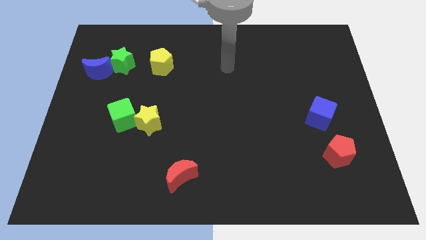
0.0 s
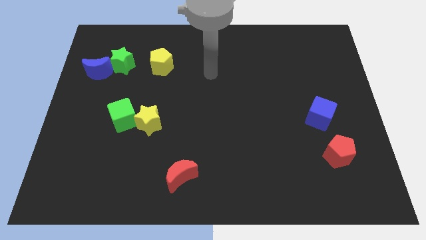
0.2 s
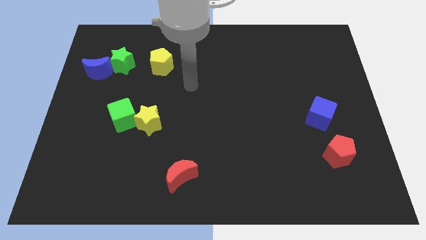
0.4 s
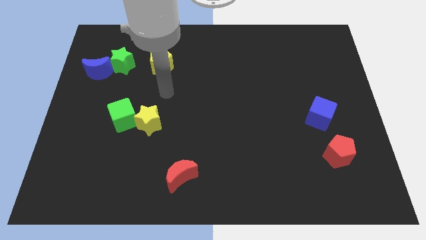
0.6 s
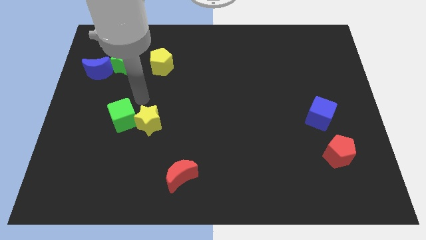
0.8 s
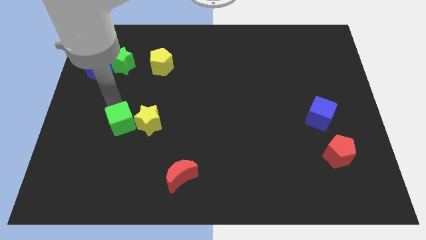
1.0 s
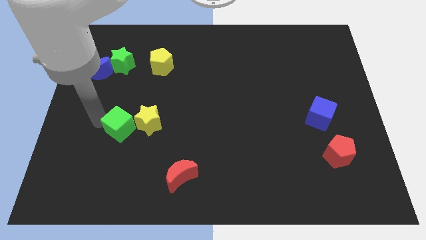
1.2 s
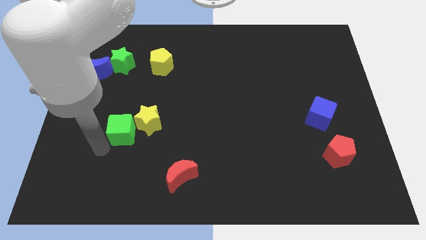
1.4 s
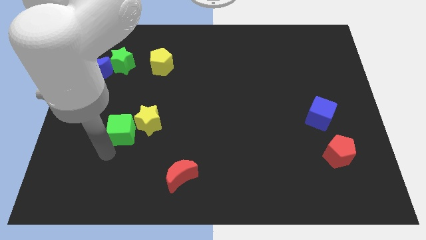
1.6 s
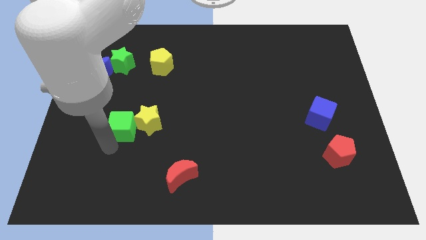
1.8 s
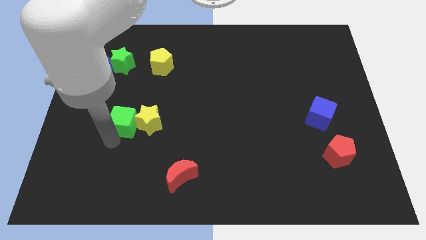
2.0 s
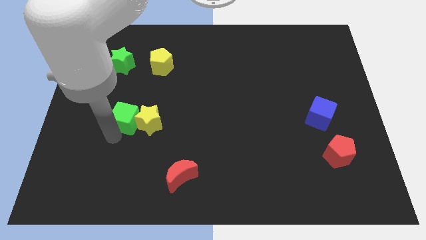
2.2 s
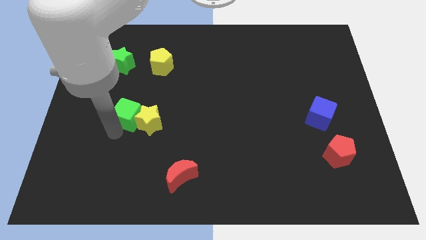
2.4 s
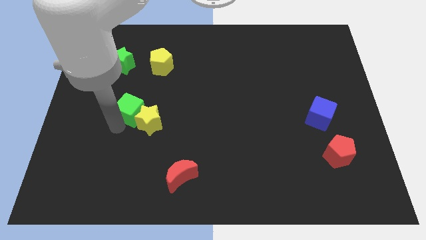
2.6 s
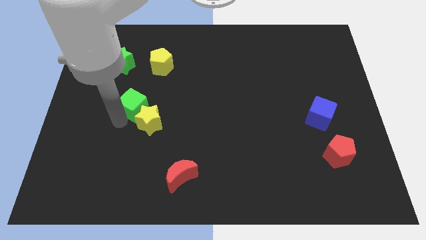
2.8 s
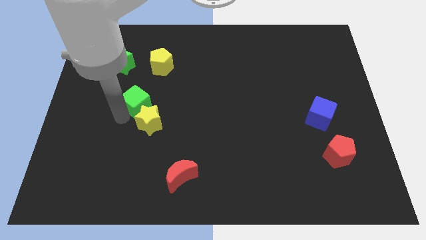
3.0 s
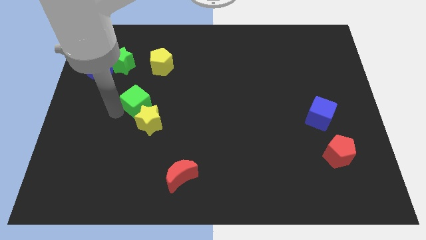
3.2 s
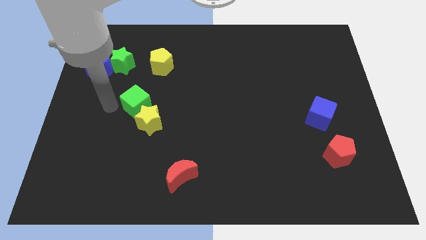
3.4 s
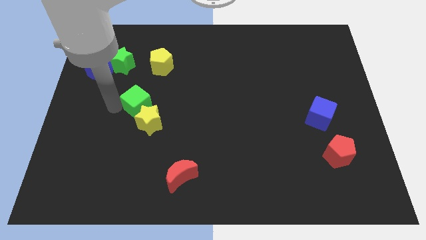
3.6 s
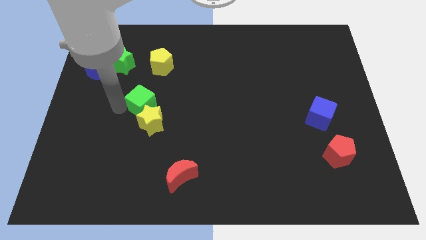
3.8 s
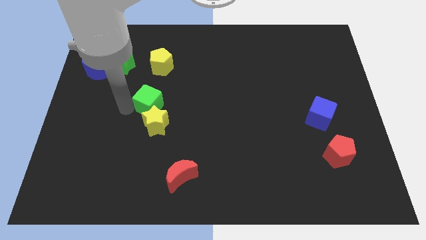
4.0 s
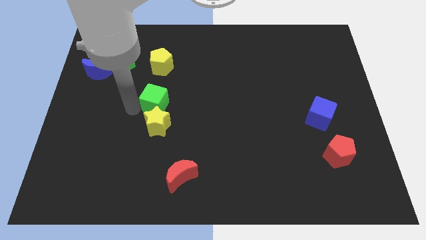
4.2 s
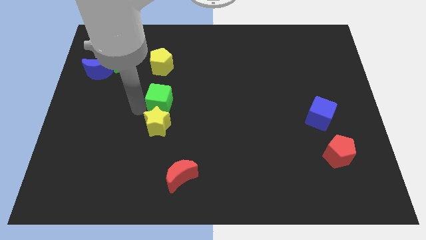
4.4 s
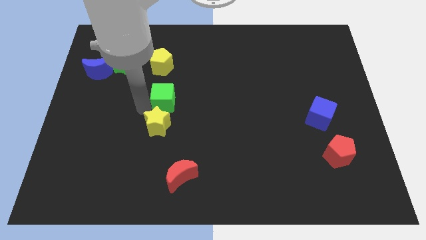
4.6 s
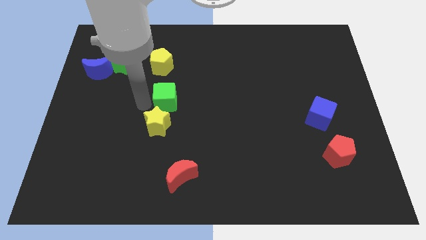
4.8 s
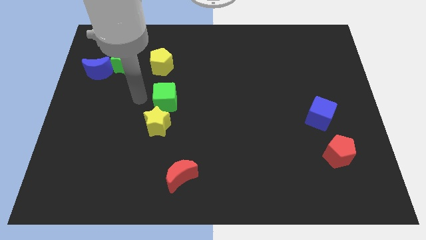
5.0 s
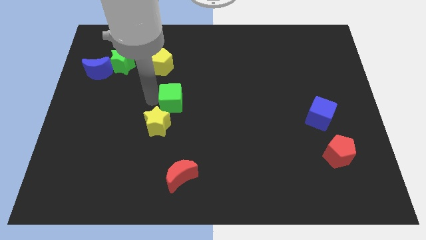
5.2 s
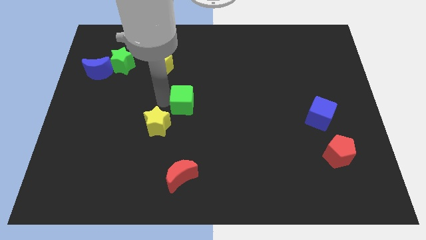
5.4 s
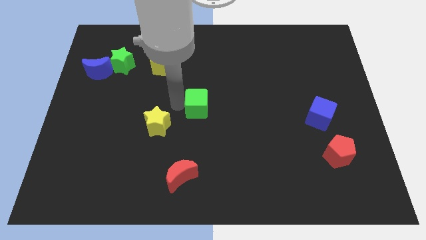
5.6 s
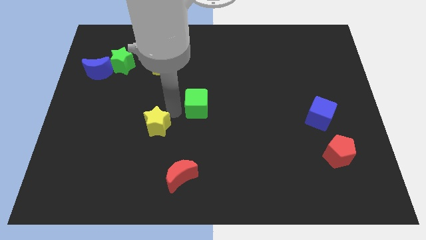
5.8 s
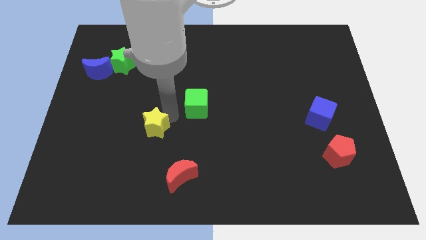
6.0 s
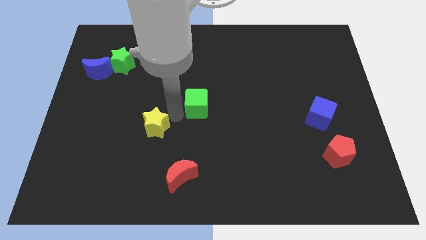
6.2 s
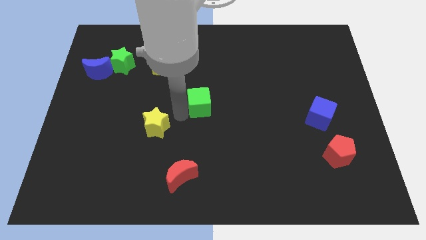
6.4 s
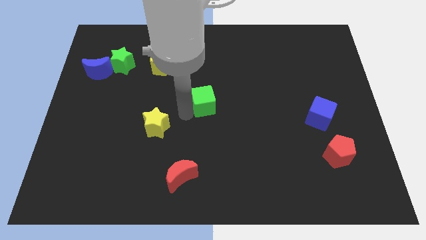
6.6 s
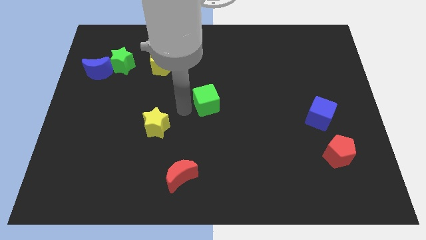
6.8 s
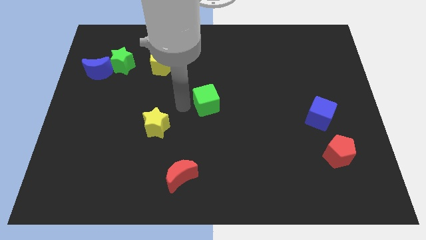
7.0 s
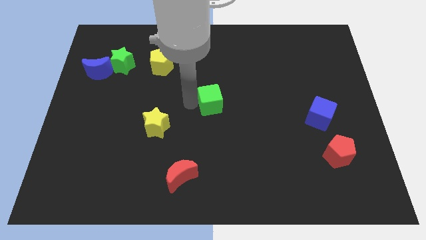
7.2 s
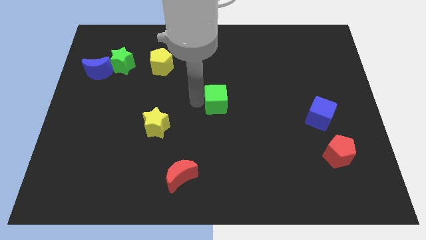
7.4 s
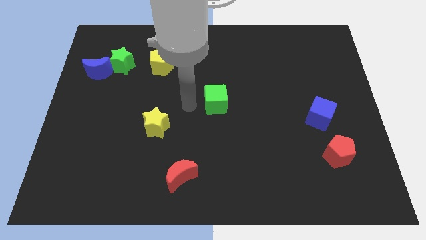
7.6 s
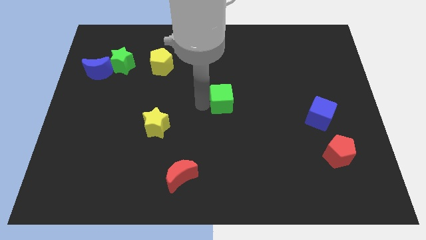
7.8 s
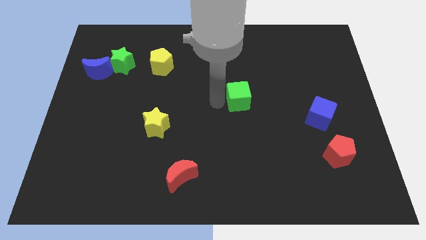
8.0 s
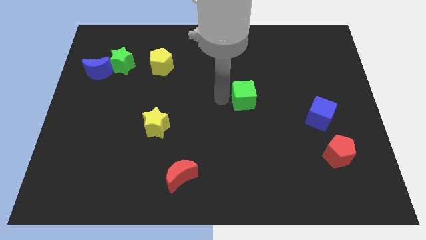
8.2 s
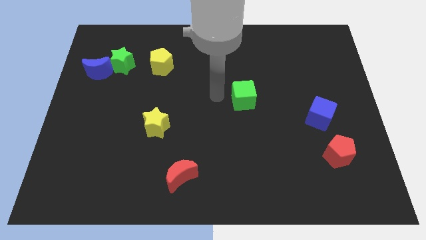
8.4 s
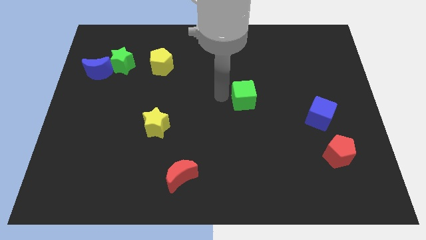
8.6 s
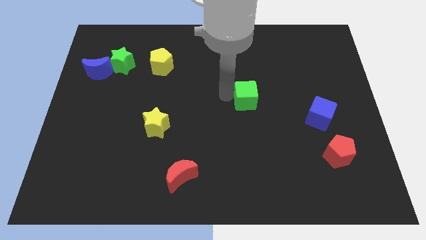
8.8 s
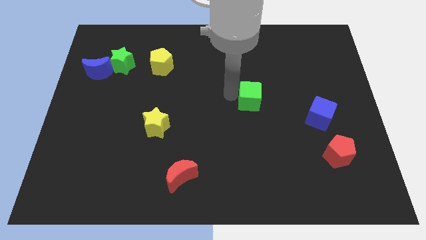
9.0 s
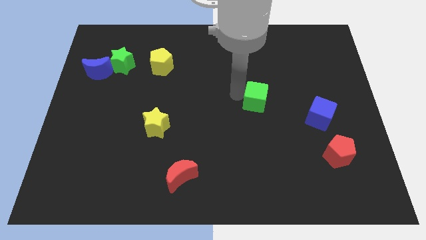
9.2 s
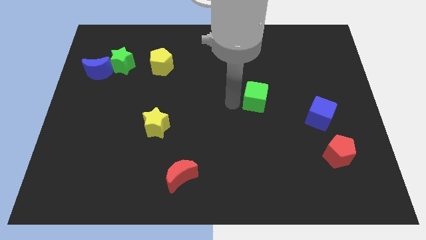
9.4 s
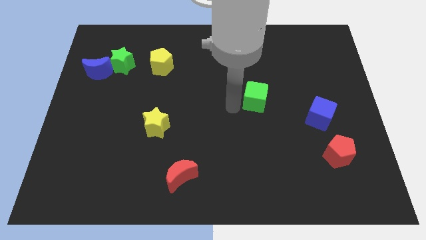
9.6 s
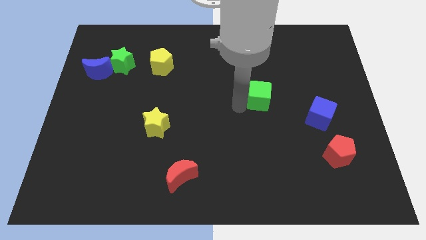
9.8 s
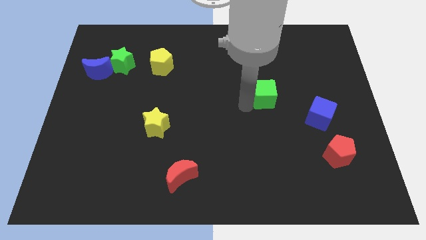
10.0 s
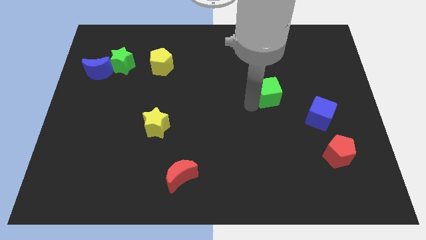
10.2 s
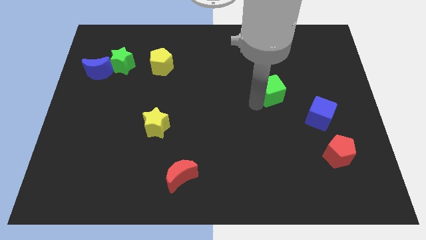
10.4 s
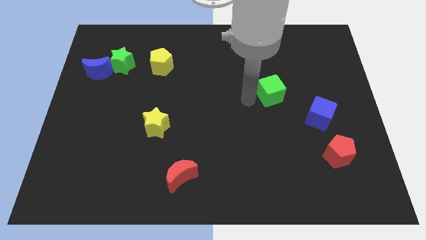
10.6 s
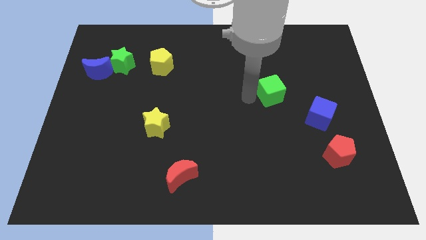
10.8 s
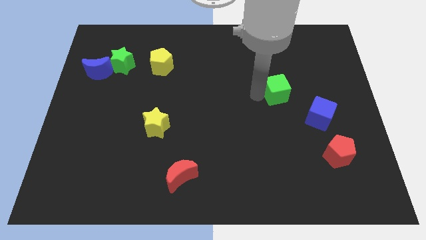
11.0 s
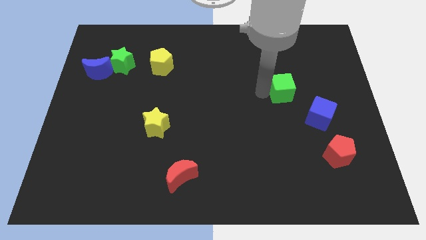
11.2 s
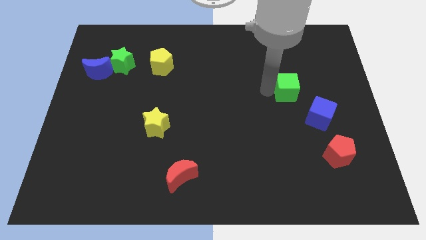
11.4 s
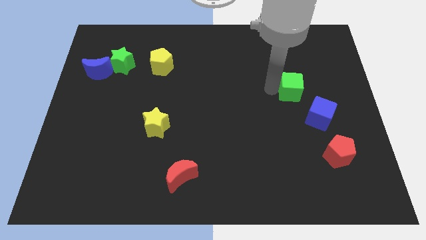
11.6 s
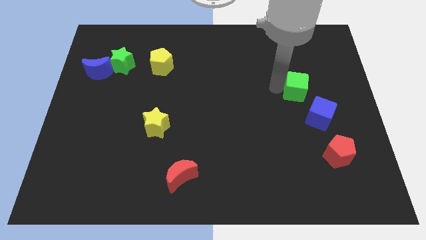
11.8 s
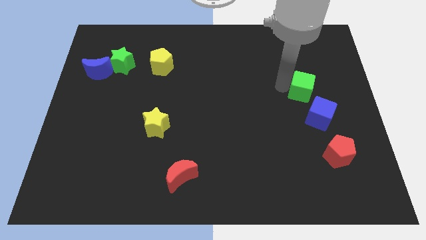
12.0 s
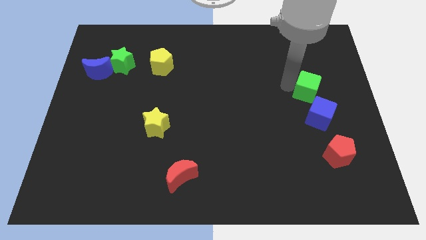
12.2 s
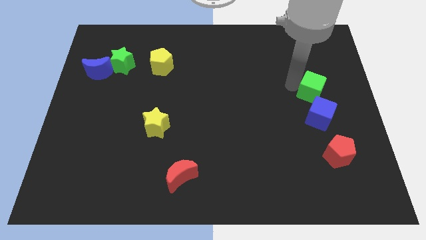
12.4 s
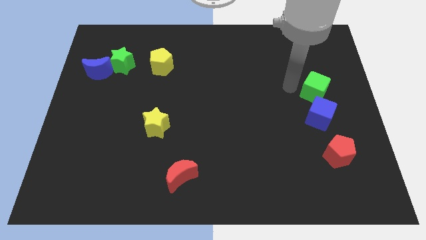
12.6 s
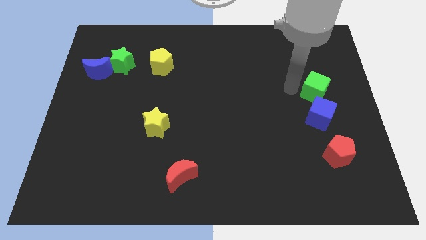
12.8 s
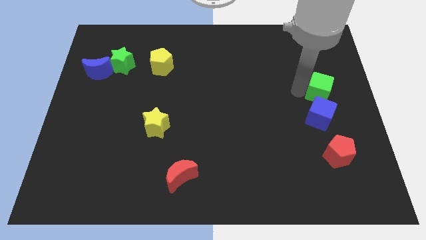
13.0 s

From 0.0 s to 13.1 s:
slide the green cube to the right side of the board

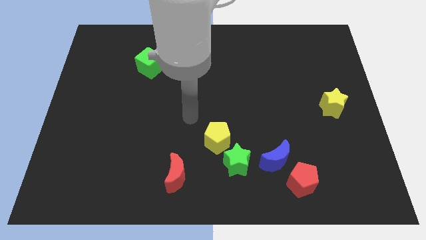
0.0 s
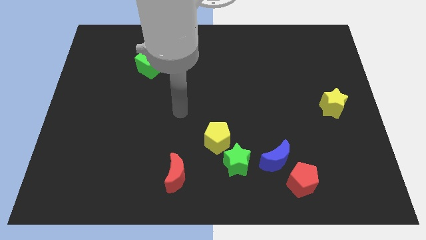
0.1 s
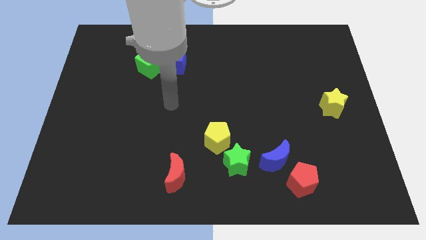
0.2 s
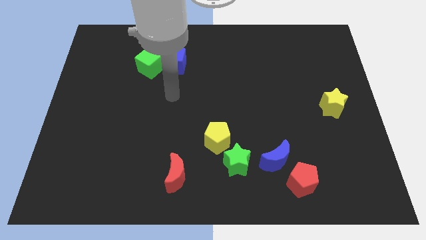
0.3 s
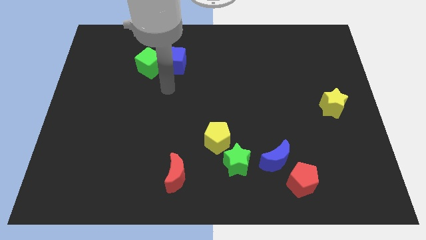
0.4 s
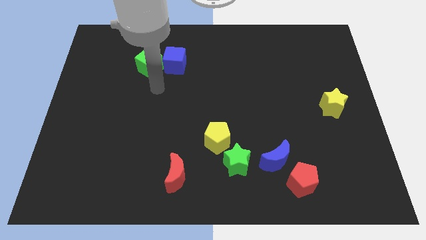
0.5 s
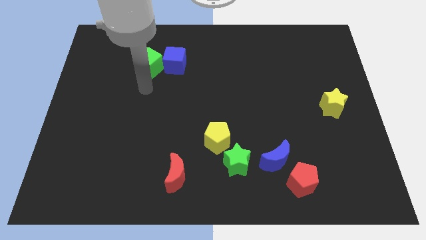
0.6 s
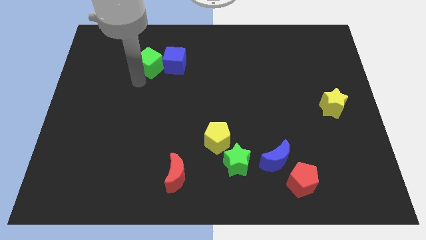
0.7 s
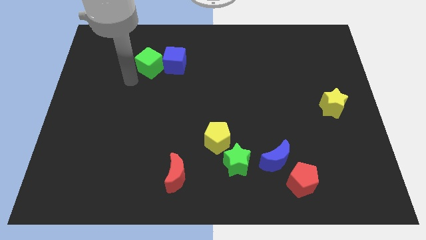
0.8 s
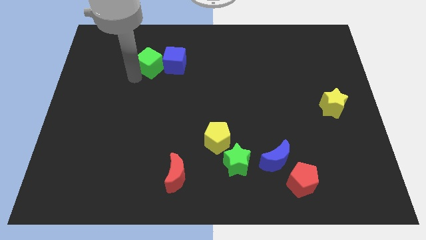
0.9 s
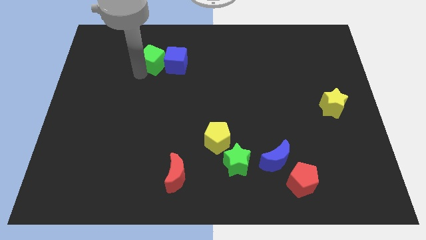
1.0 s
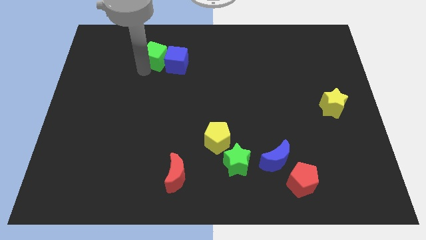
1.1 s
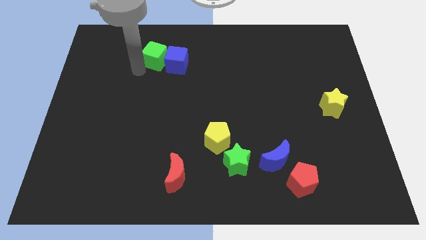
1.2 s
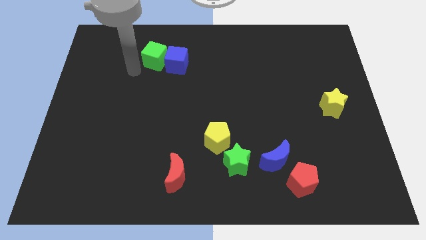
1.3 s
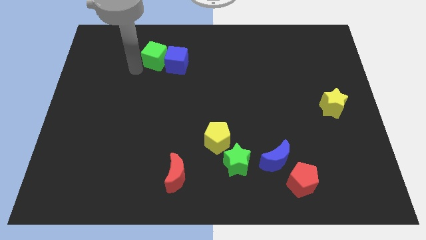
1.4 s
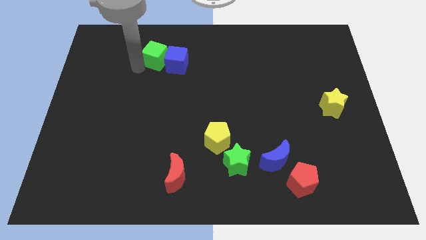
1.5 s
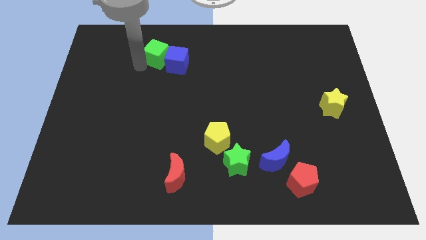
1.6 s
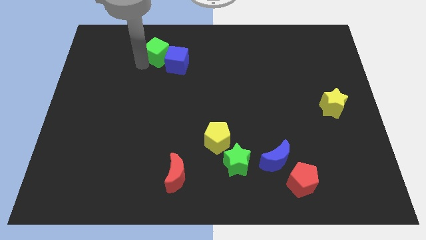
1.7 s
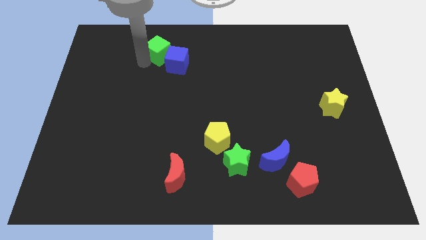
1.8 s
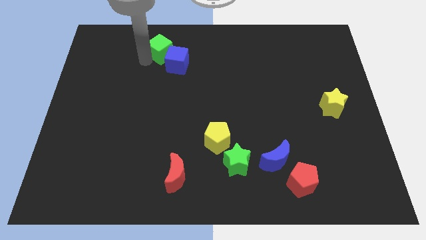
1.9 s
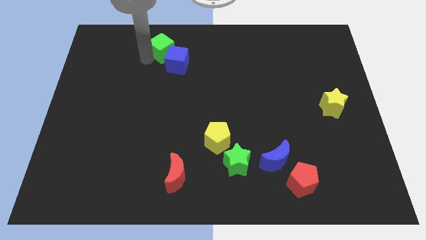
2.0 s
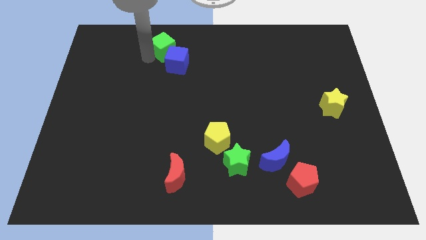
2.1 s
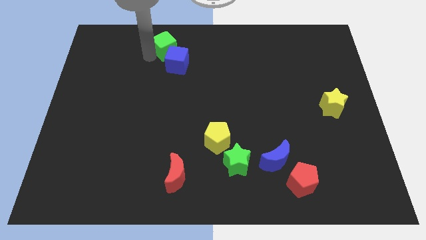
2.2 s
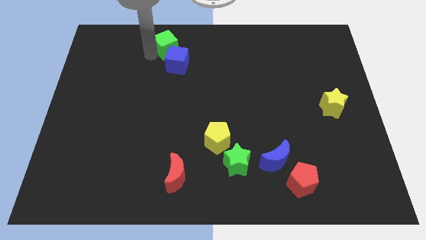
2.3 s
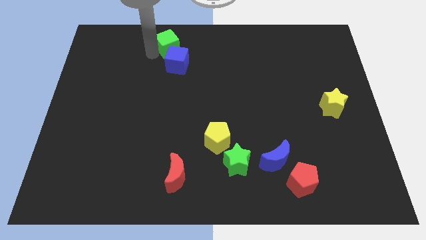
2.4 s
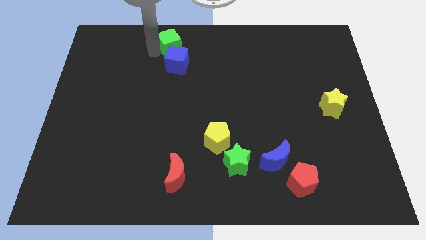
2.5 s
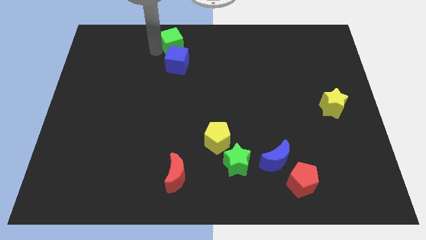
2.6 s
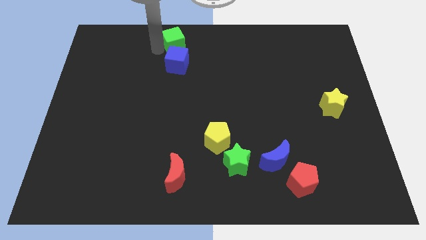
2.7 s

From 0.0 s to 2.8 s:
move the green cube to the top side
